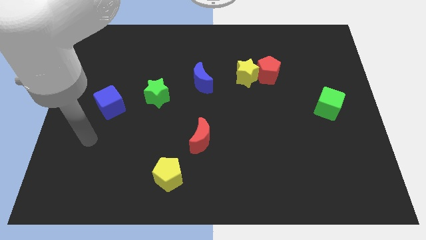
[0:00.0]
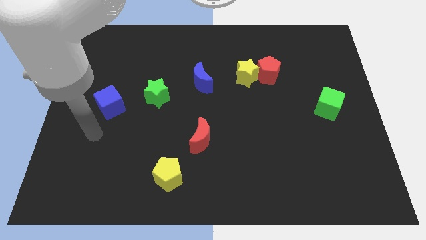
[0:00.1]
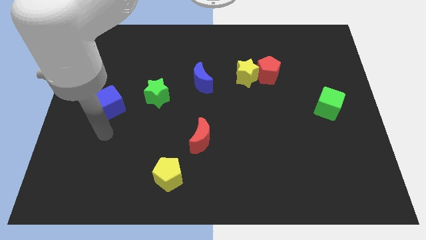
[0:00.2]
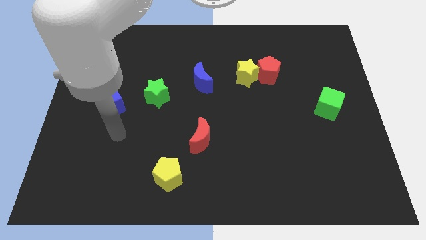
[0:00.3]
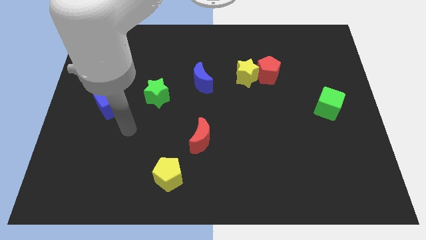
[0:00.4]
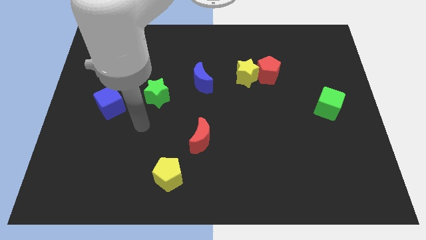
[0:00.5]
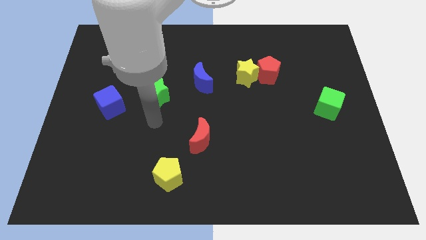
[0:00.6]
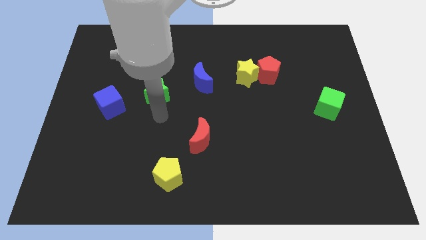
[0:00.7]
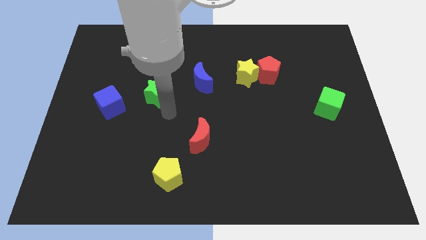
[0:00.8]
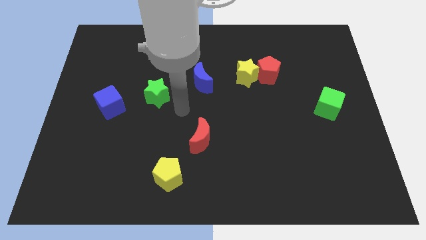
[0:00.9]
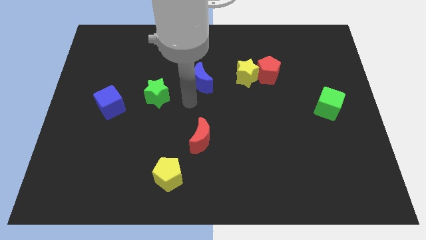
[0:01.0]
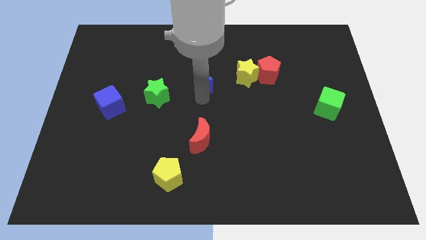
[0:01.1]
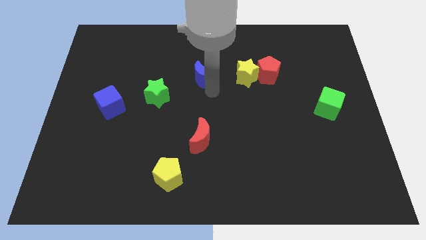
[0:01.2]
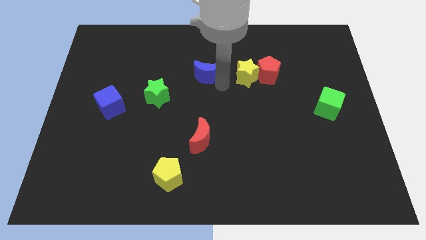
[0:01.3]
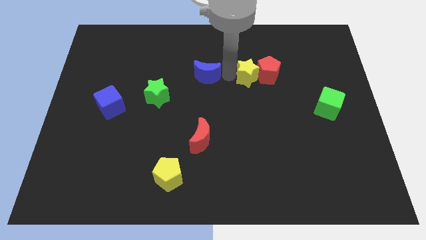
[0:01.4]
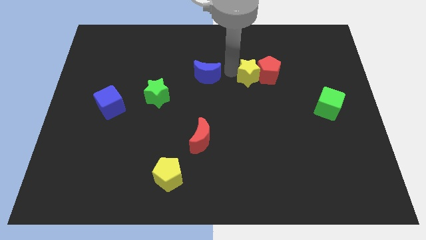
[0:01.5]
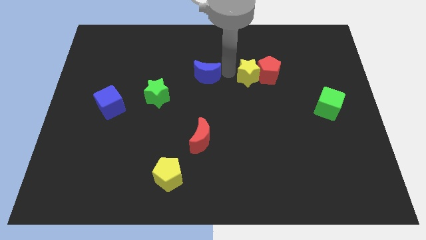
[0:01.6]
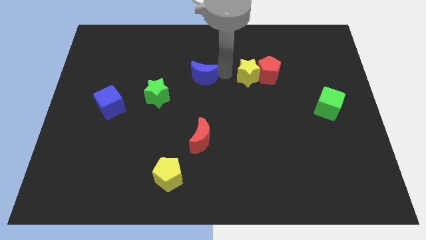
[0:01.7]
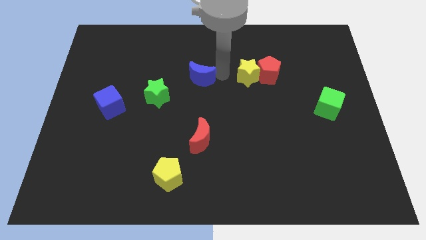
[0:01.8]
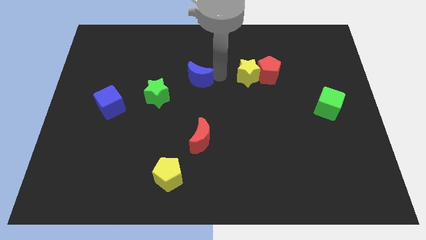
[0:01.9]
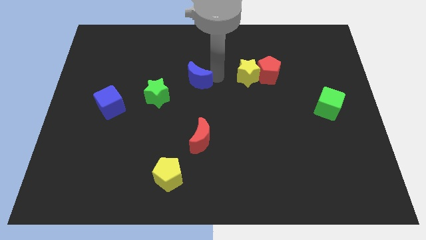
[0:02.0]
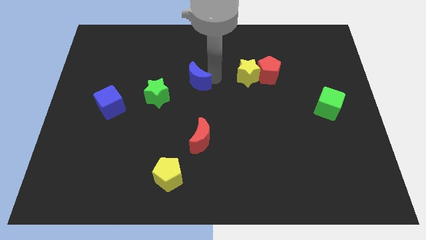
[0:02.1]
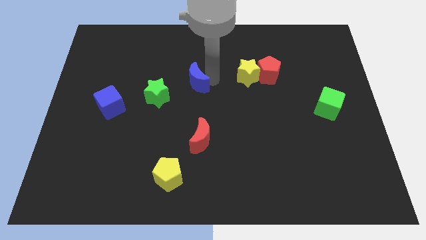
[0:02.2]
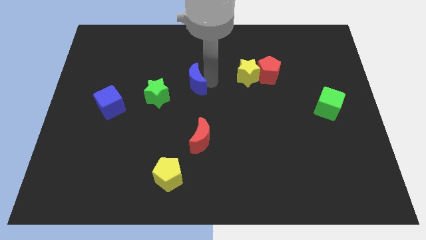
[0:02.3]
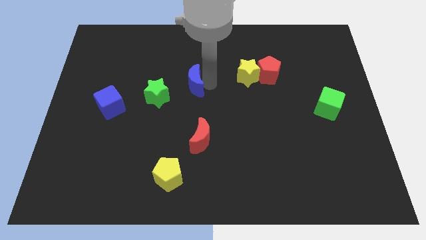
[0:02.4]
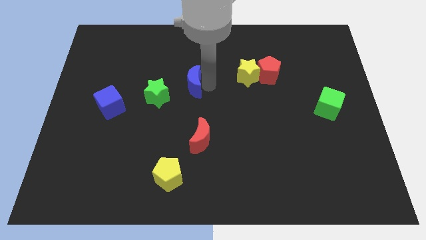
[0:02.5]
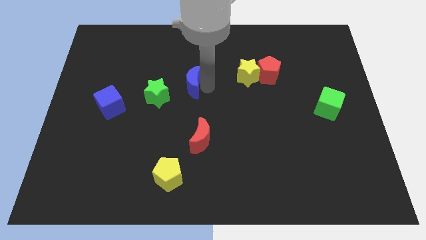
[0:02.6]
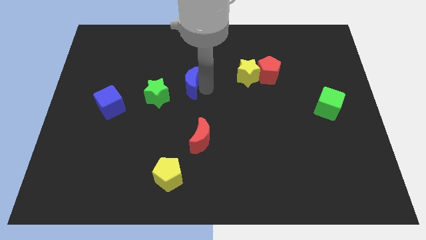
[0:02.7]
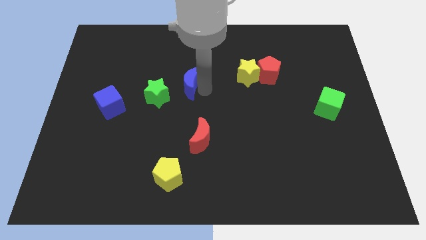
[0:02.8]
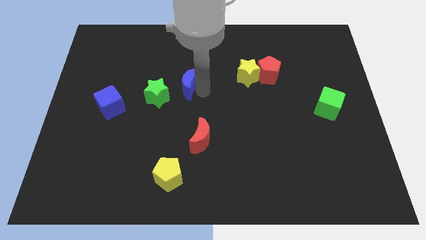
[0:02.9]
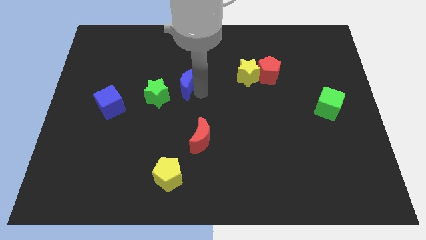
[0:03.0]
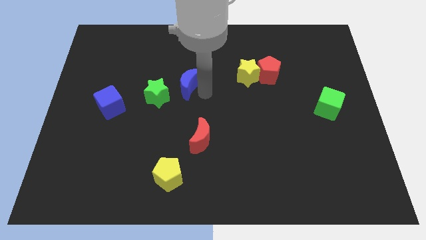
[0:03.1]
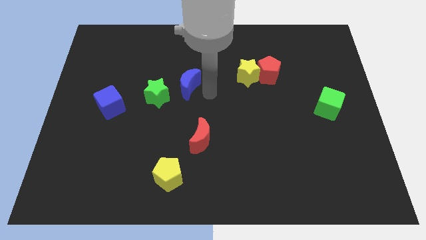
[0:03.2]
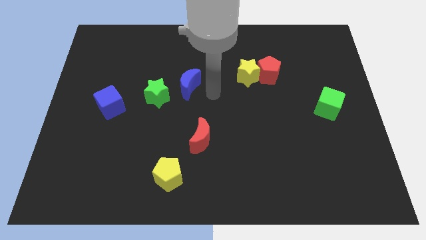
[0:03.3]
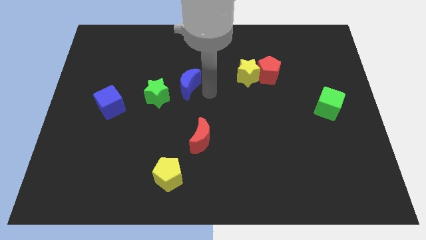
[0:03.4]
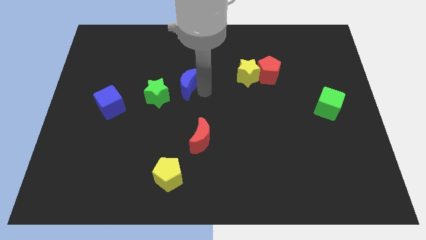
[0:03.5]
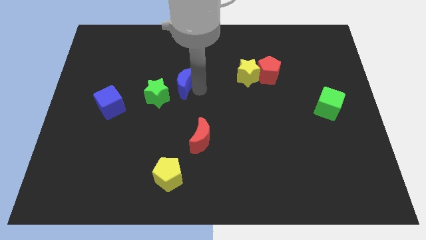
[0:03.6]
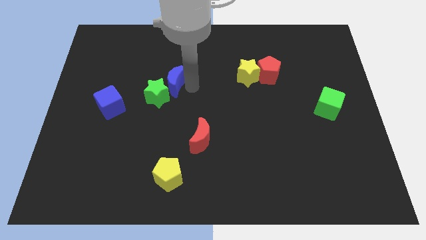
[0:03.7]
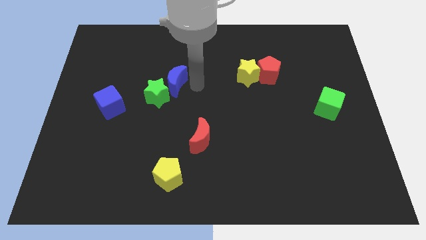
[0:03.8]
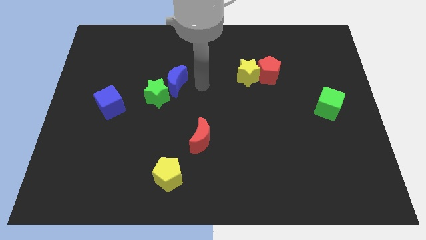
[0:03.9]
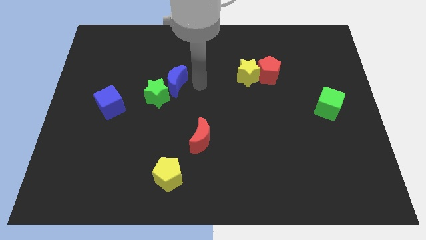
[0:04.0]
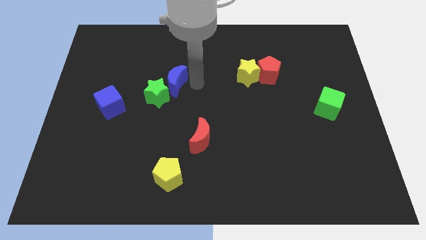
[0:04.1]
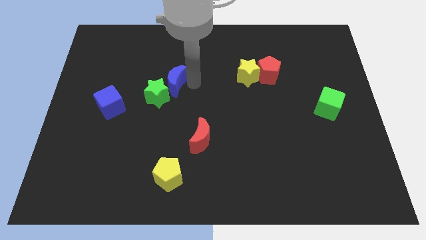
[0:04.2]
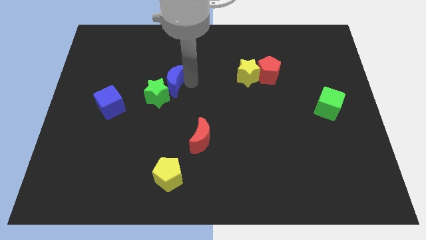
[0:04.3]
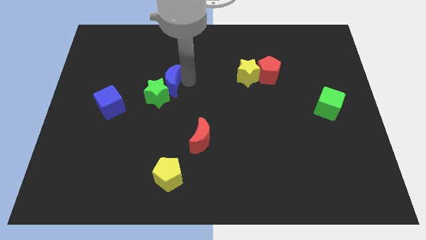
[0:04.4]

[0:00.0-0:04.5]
push the blue moon to the left a little

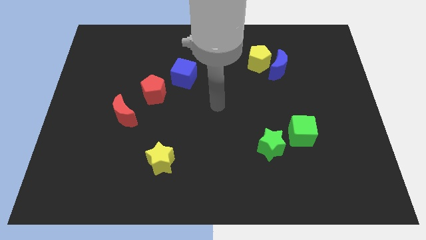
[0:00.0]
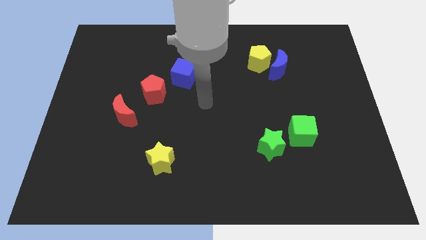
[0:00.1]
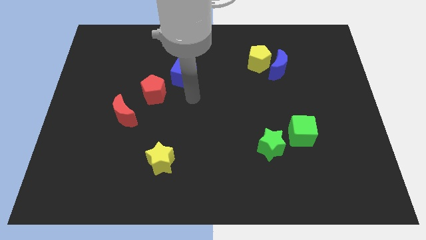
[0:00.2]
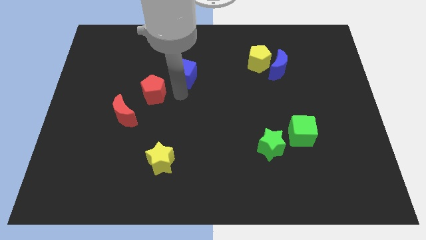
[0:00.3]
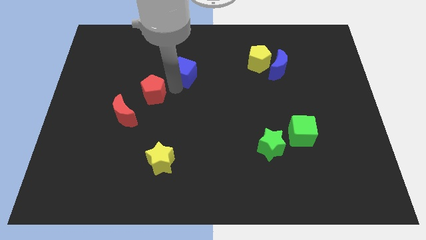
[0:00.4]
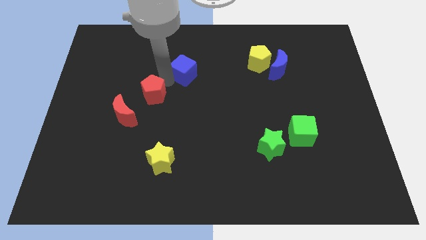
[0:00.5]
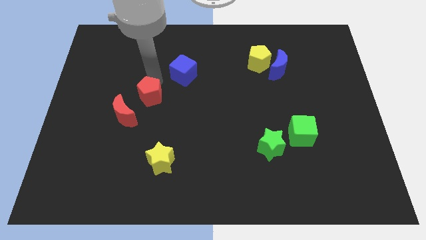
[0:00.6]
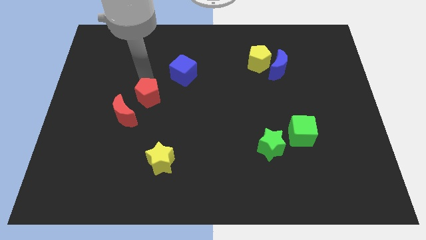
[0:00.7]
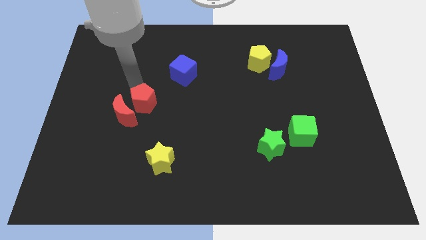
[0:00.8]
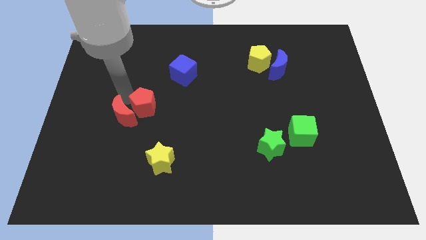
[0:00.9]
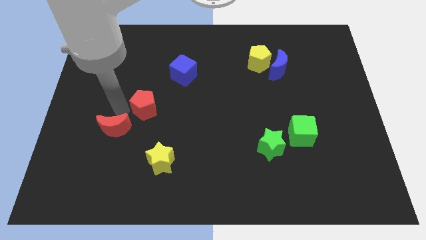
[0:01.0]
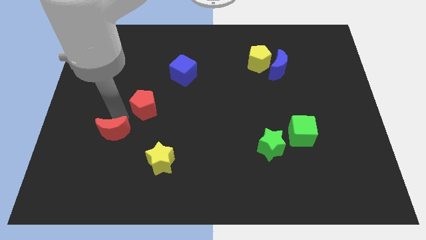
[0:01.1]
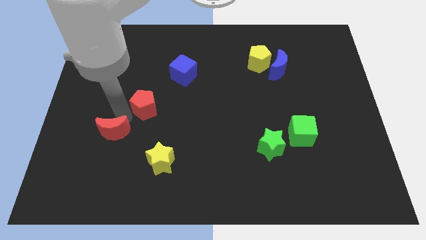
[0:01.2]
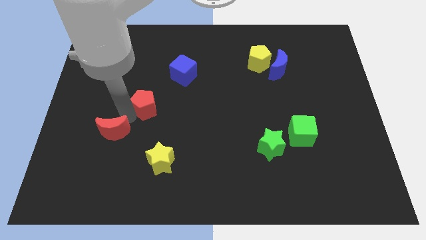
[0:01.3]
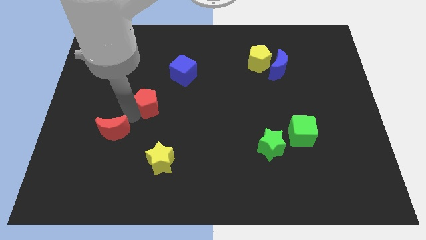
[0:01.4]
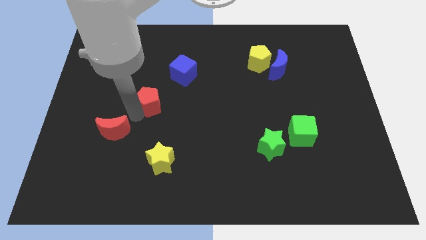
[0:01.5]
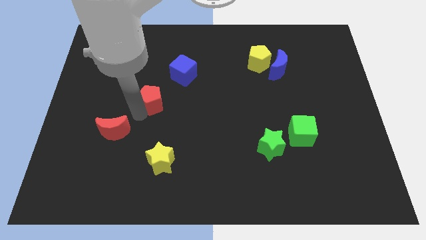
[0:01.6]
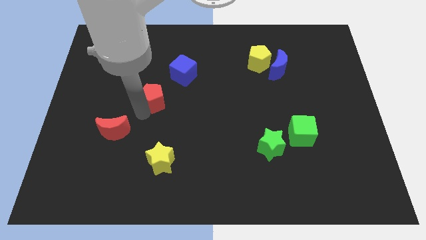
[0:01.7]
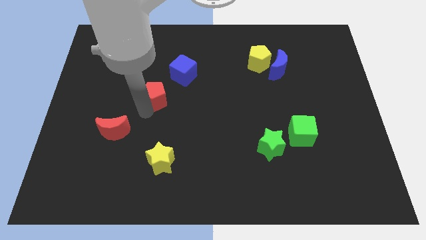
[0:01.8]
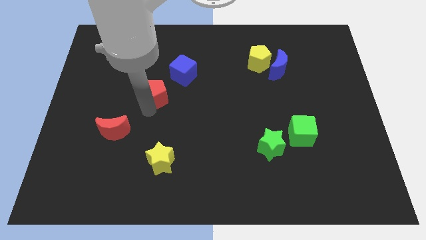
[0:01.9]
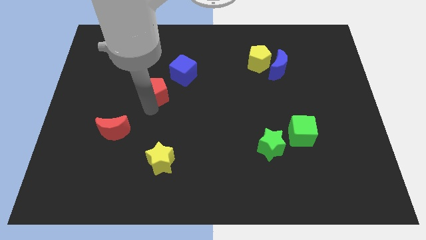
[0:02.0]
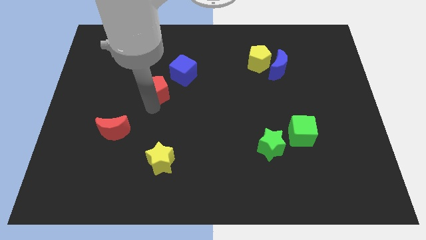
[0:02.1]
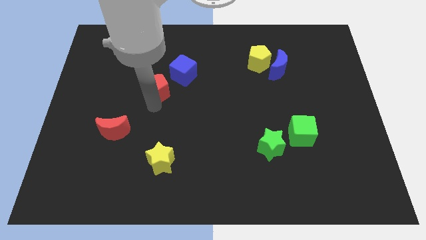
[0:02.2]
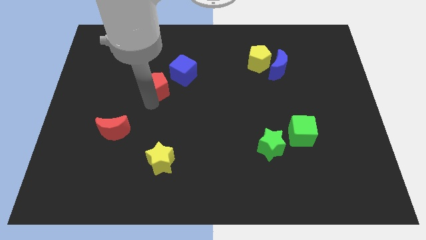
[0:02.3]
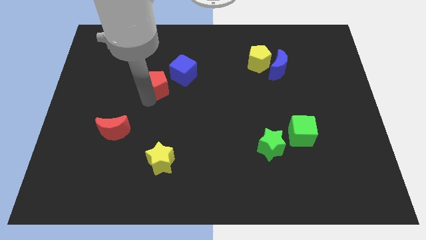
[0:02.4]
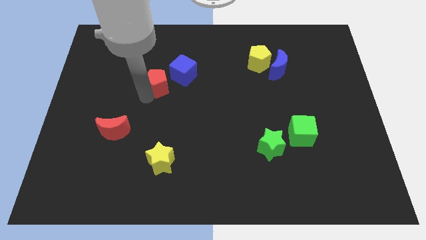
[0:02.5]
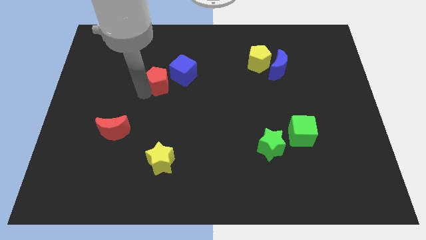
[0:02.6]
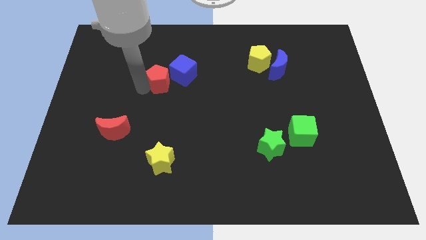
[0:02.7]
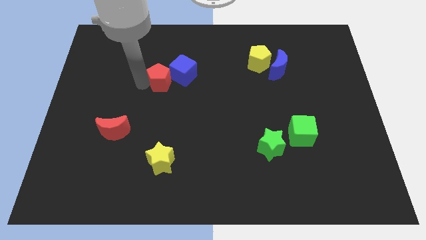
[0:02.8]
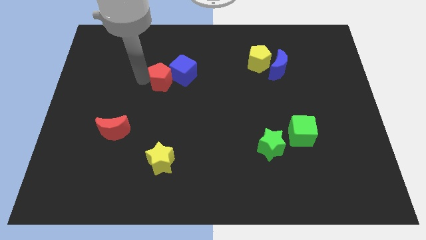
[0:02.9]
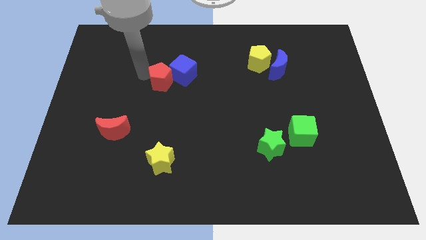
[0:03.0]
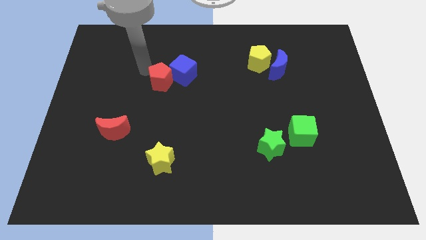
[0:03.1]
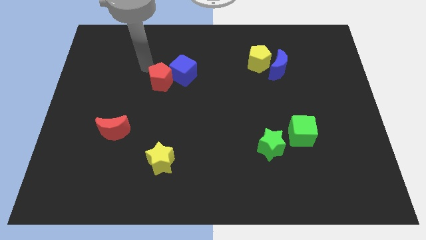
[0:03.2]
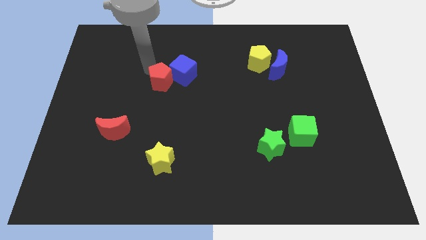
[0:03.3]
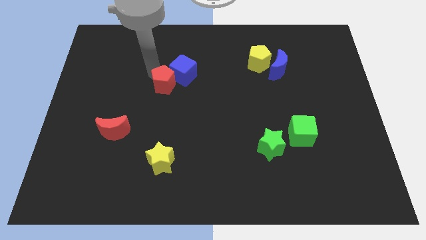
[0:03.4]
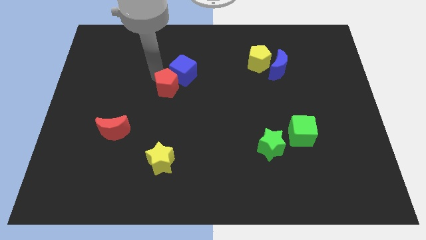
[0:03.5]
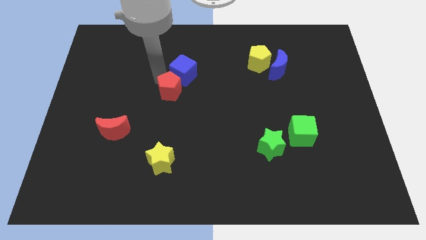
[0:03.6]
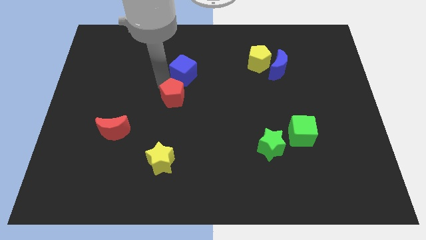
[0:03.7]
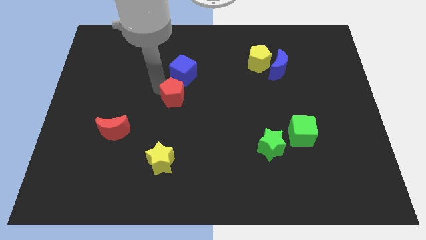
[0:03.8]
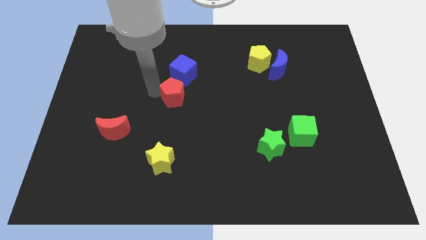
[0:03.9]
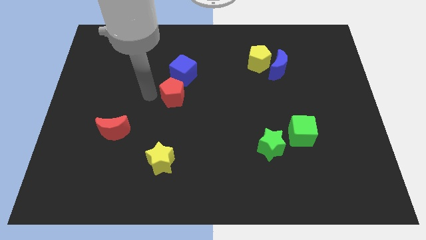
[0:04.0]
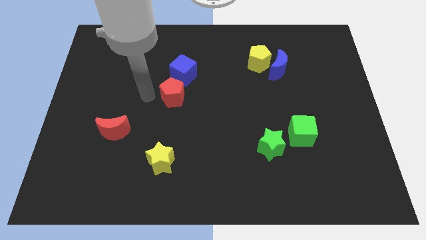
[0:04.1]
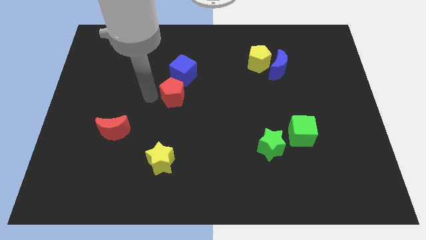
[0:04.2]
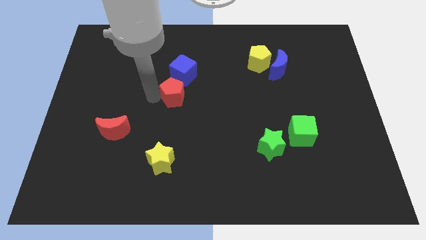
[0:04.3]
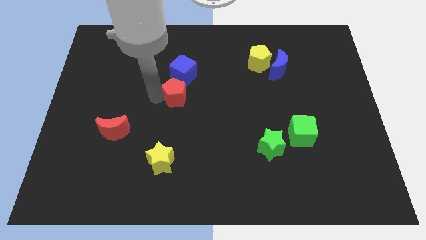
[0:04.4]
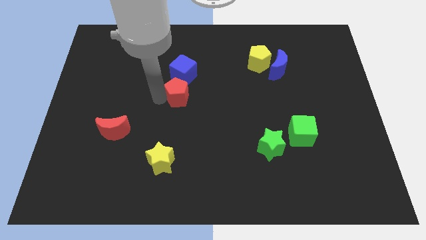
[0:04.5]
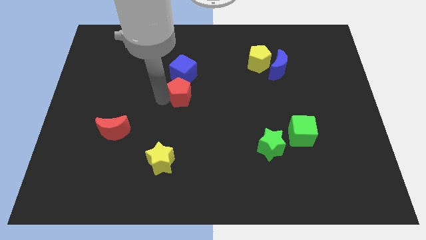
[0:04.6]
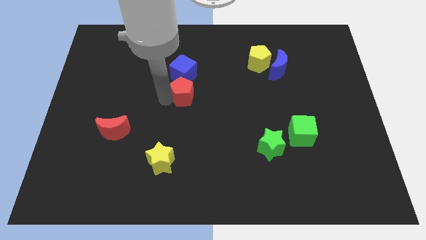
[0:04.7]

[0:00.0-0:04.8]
slightly push the red pentagon to the right
